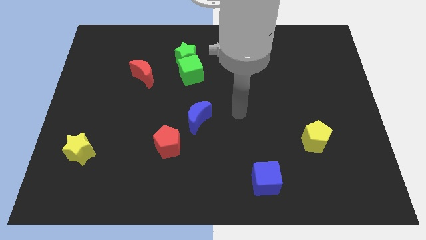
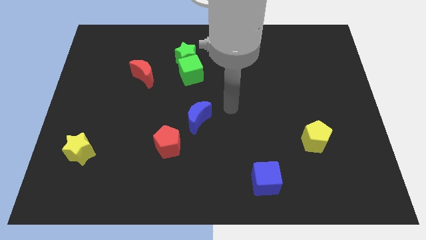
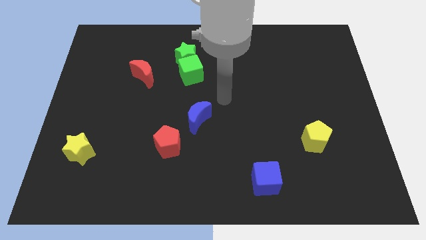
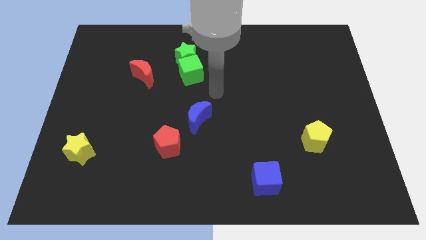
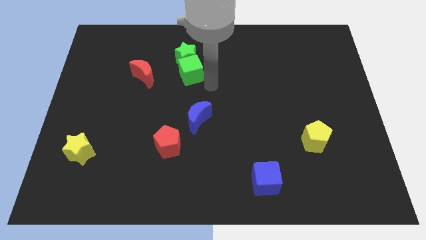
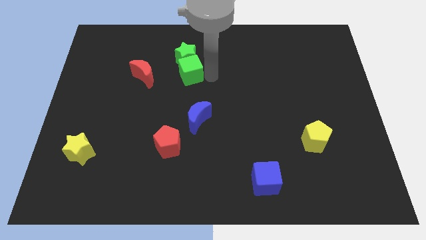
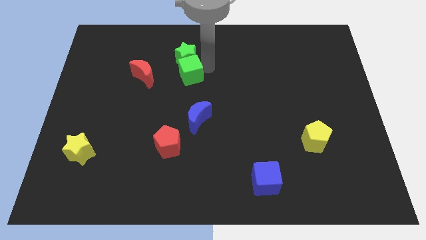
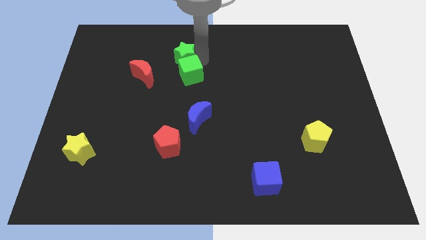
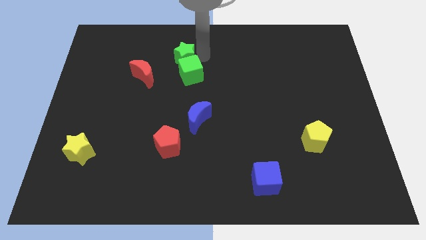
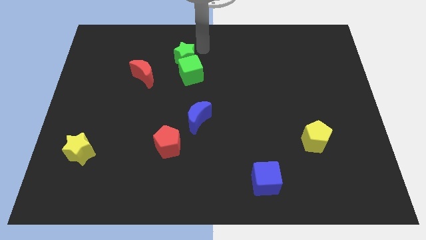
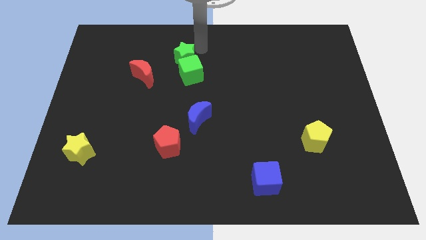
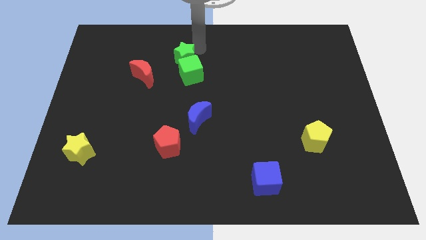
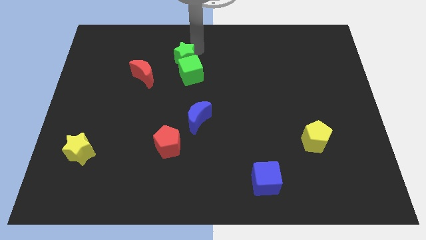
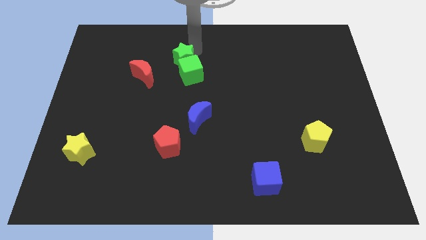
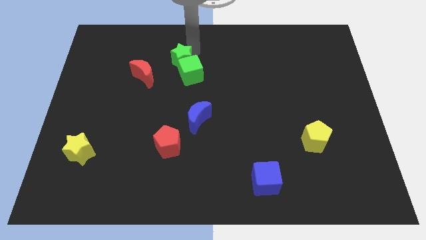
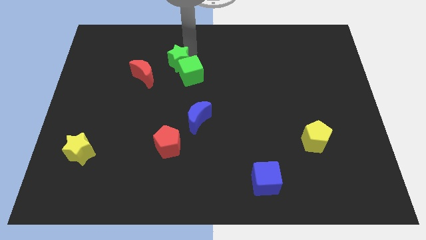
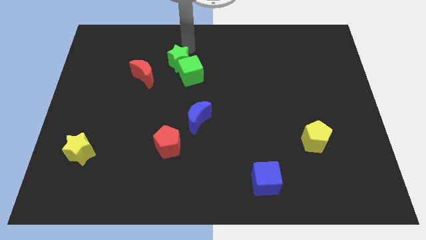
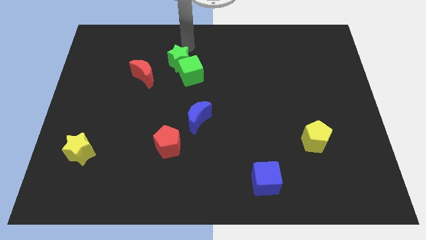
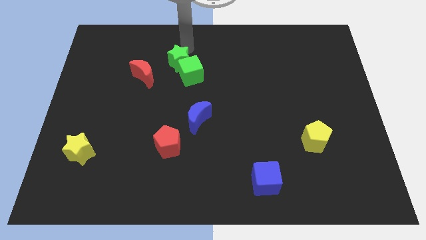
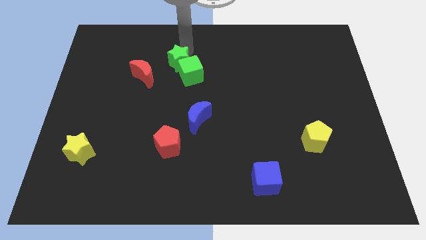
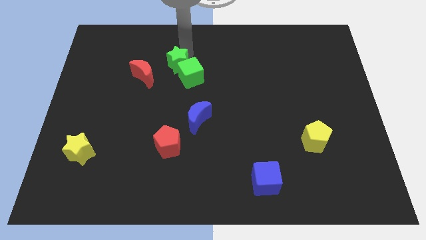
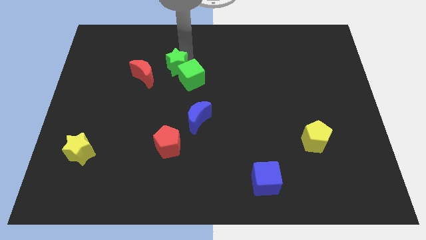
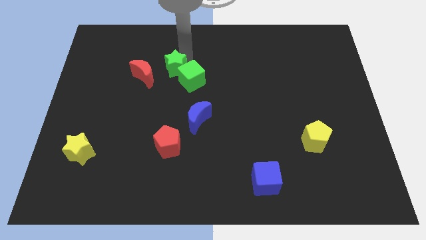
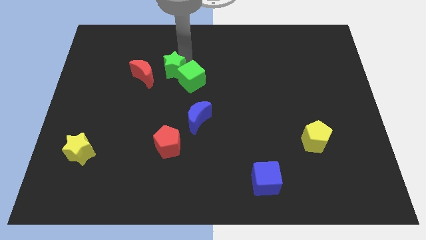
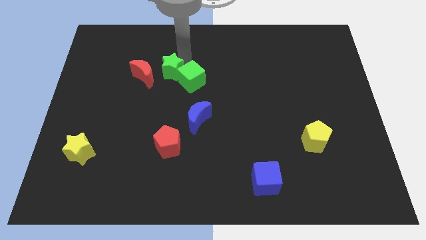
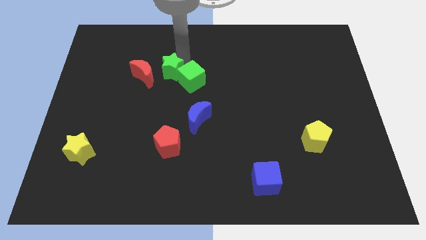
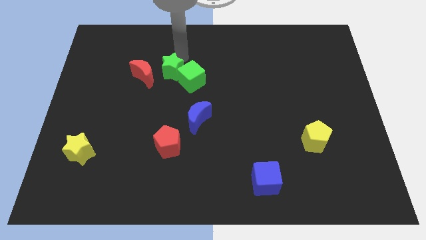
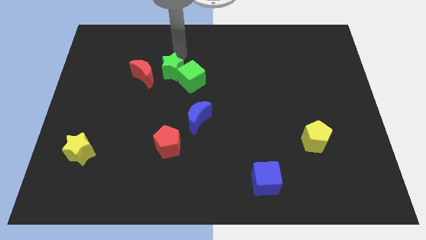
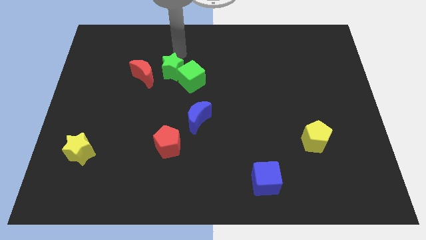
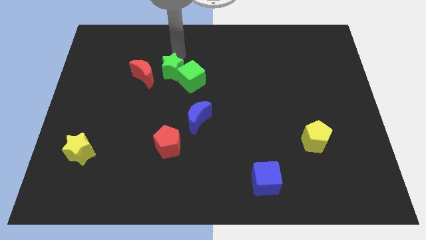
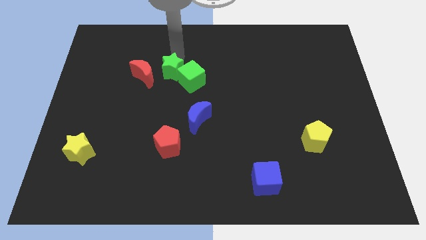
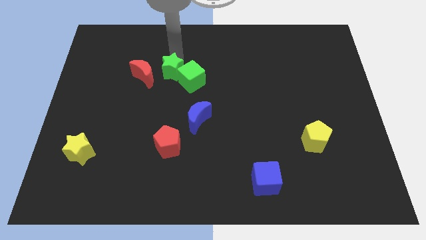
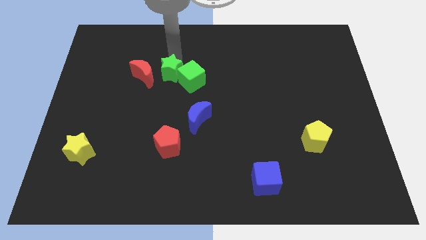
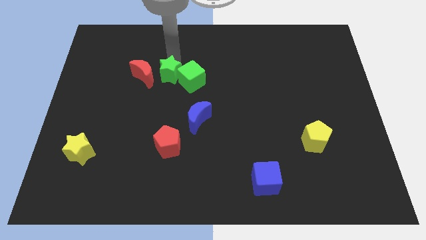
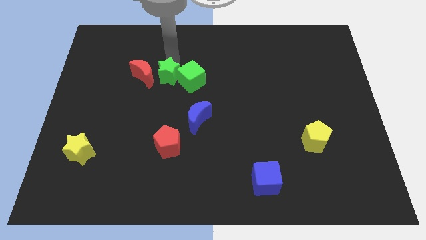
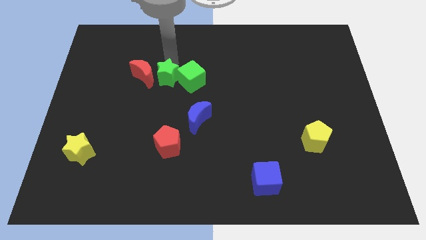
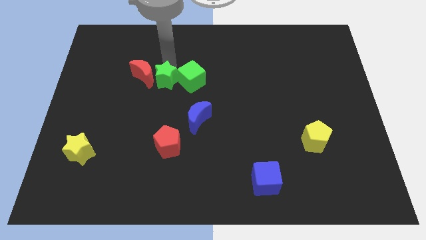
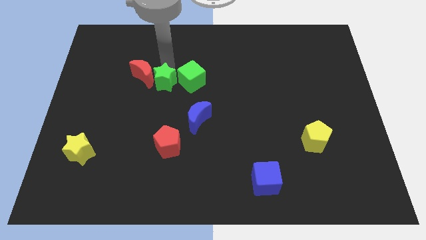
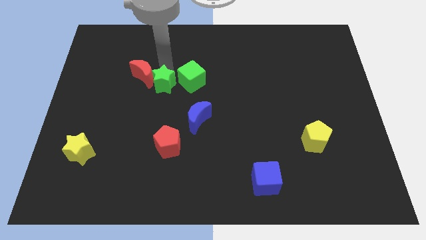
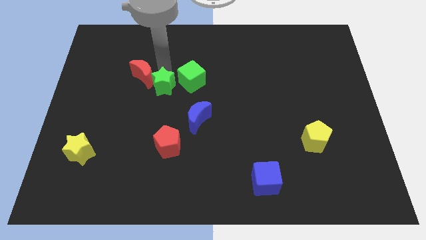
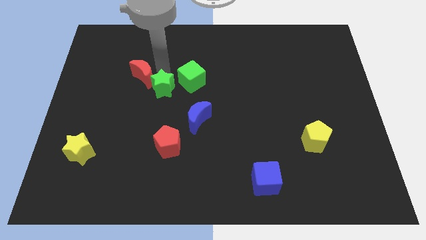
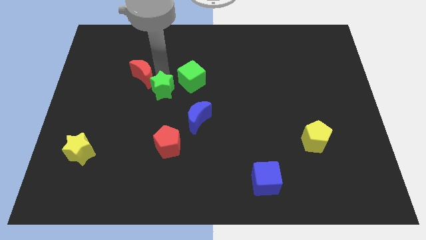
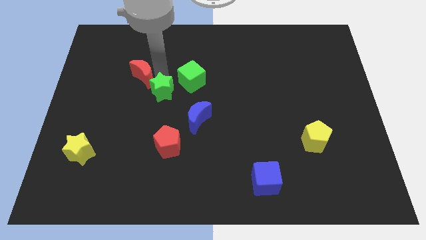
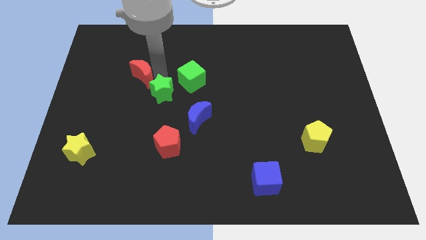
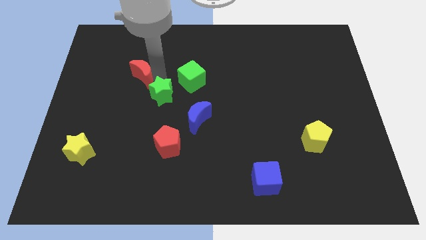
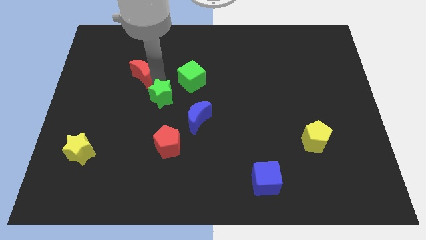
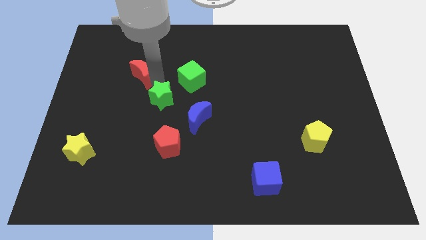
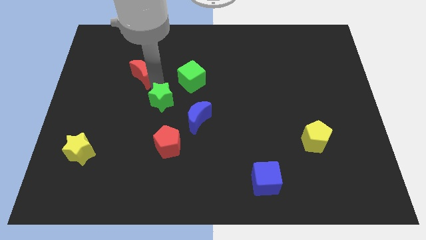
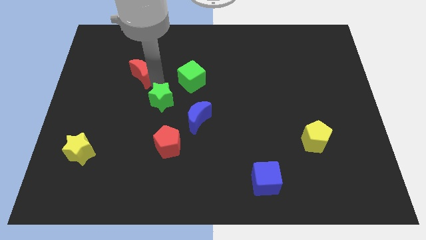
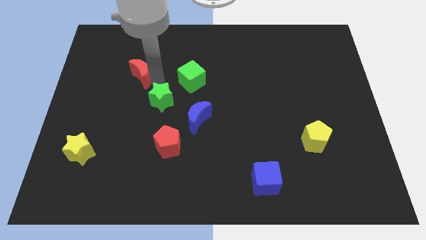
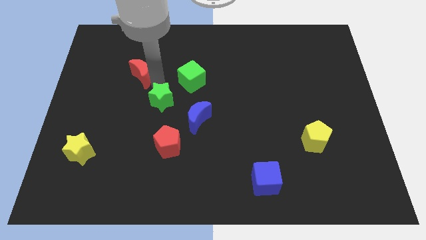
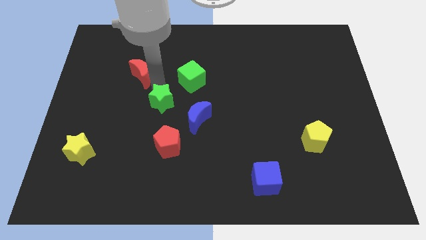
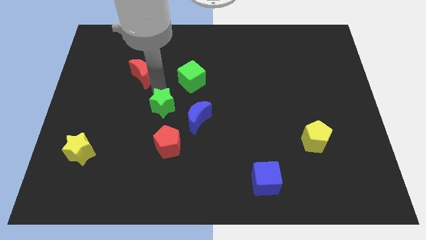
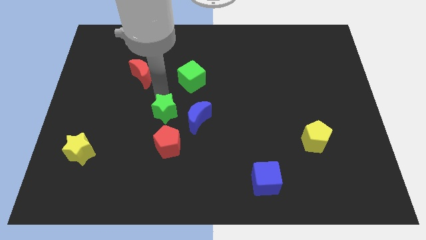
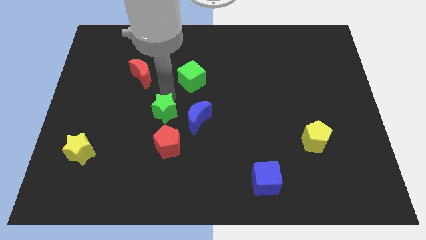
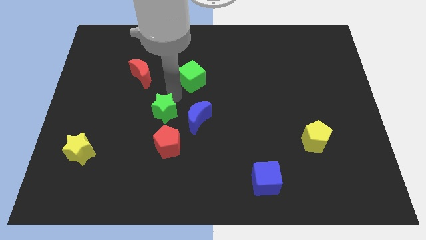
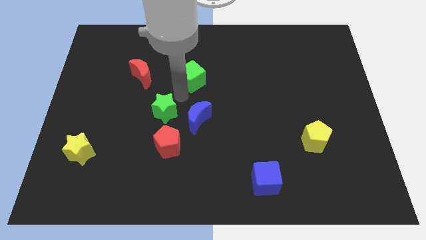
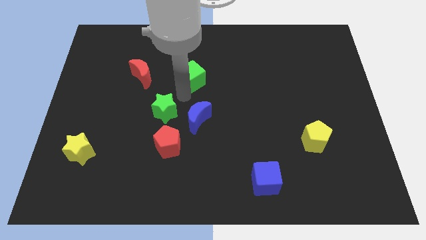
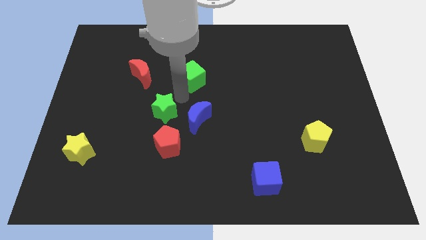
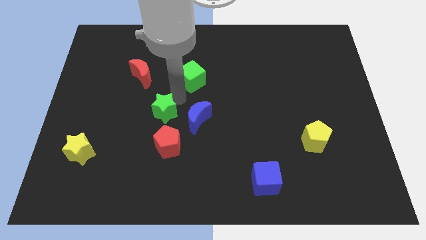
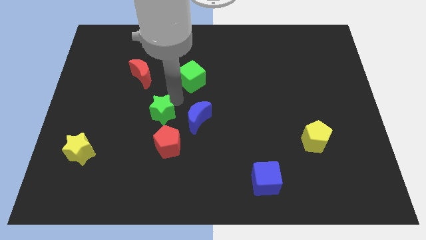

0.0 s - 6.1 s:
put the green star diagonally up and to the left of the red pentagon

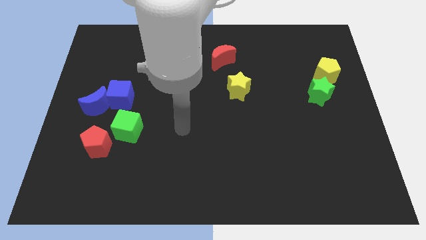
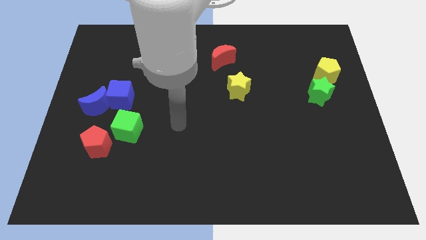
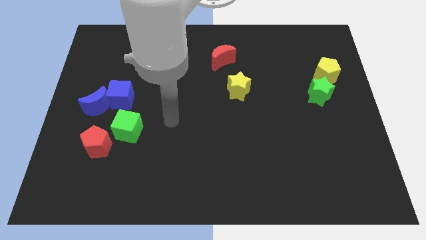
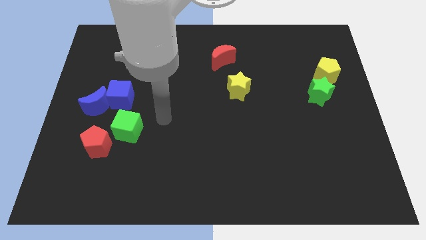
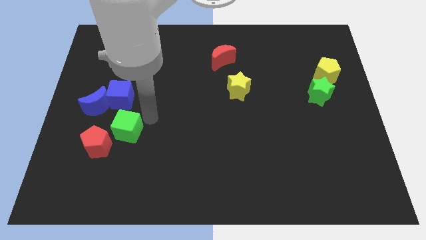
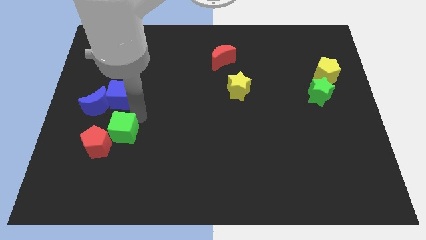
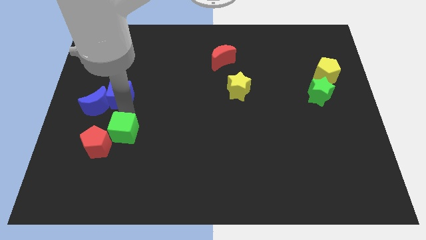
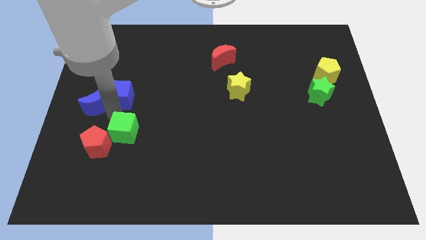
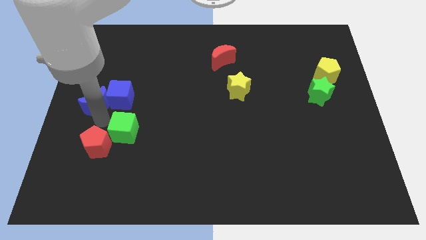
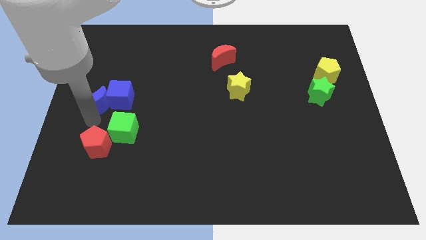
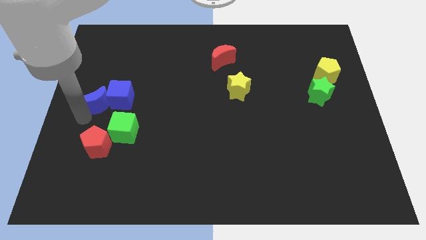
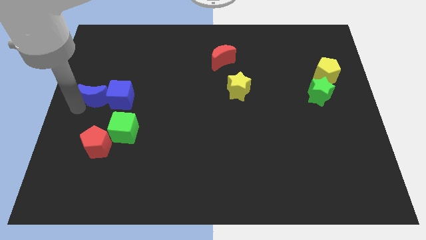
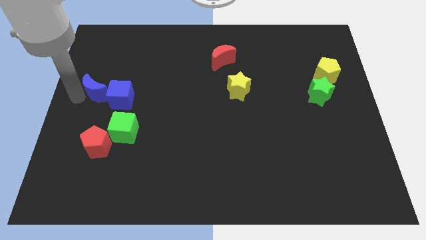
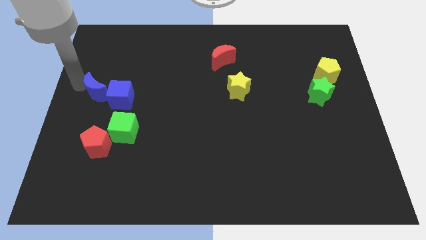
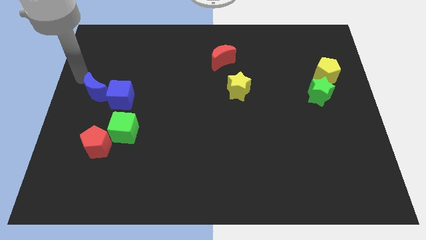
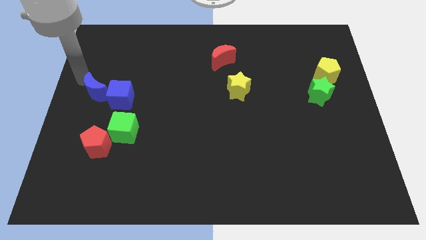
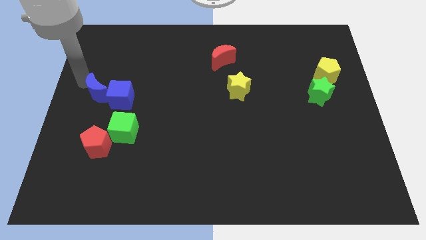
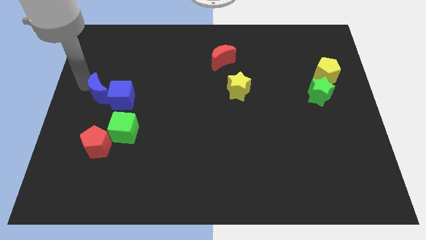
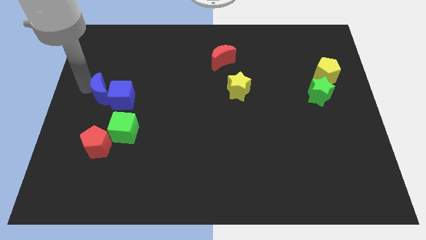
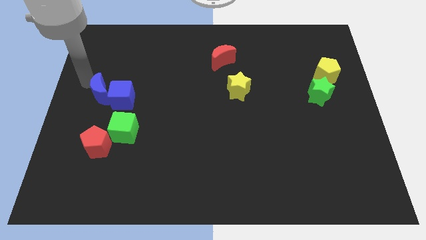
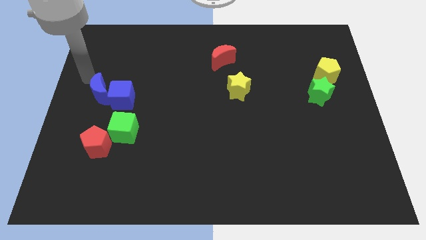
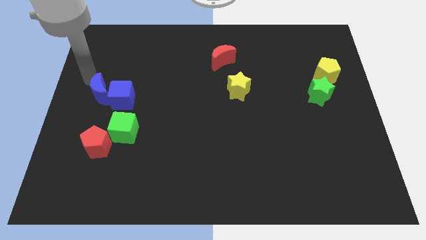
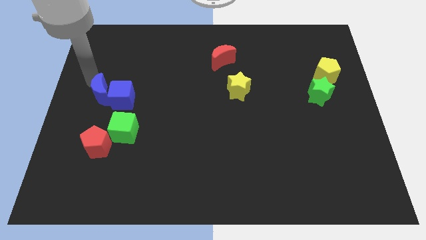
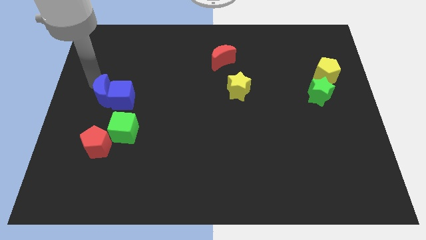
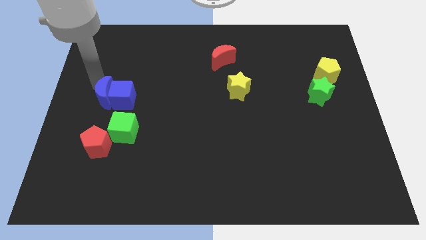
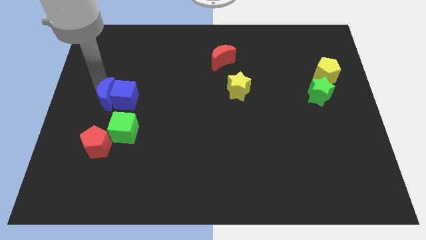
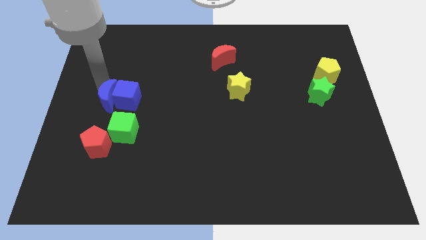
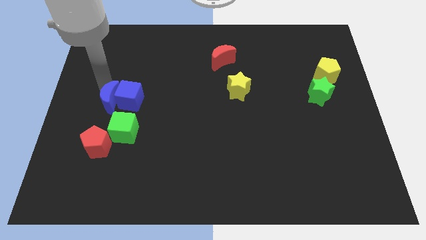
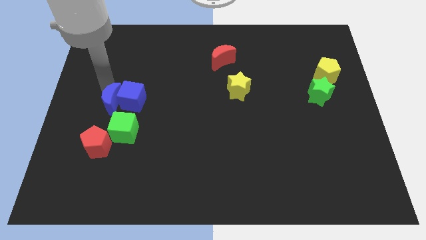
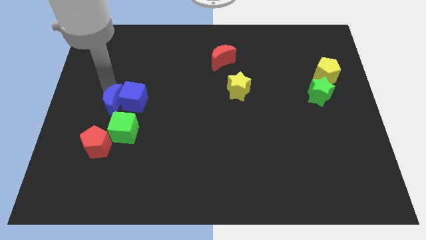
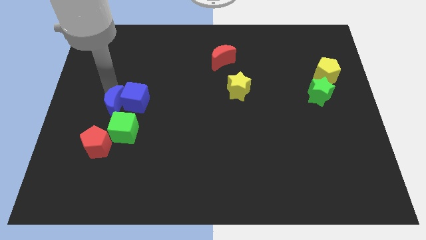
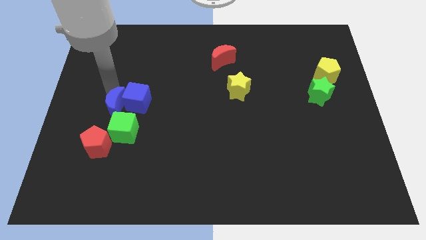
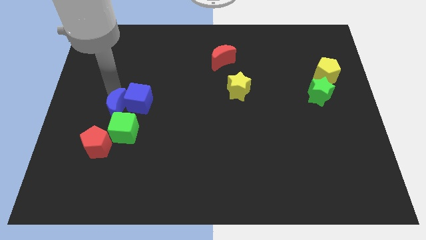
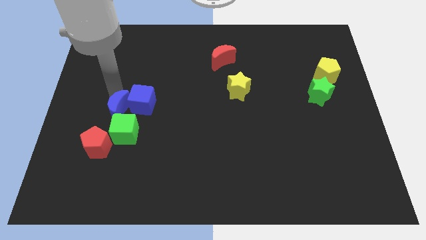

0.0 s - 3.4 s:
push the blue moon to the top right of the red pentagon
